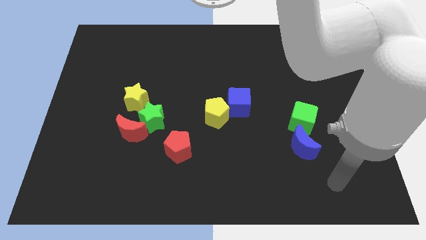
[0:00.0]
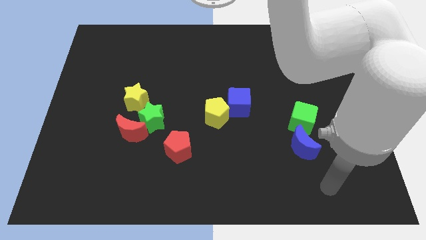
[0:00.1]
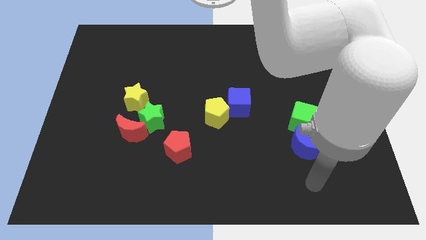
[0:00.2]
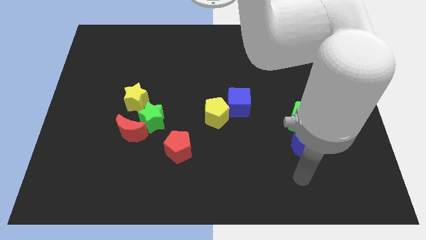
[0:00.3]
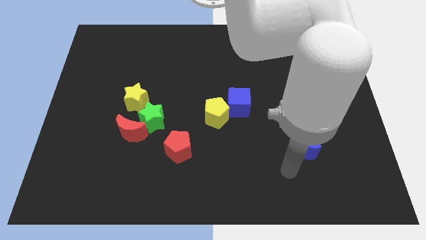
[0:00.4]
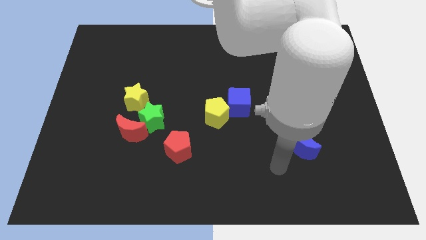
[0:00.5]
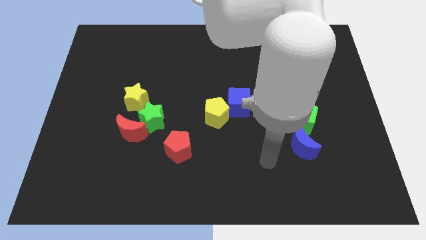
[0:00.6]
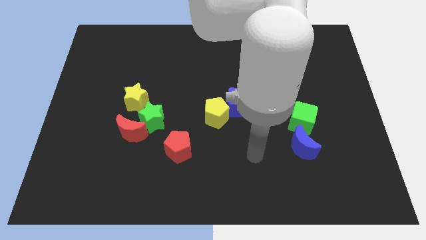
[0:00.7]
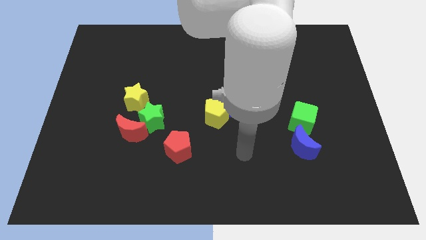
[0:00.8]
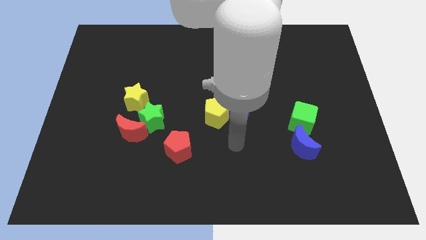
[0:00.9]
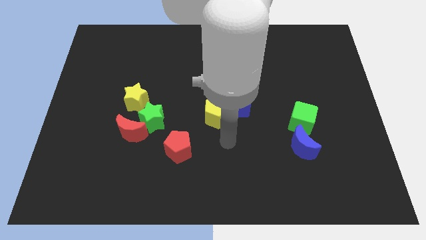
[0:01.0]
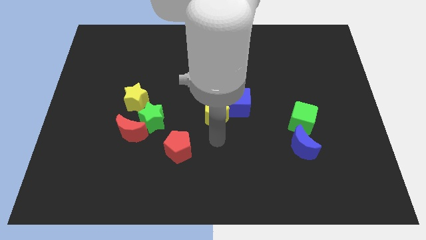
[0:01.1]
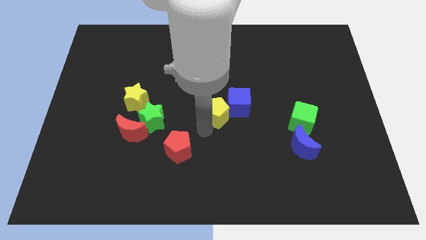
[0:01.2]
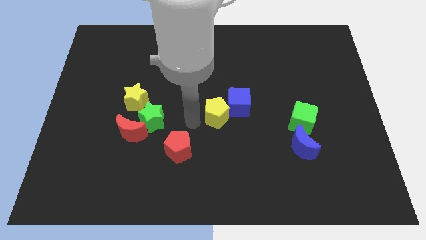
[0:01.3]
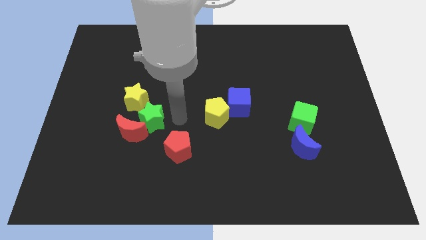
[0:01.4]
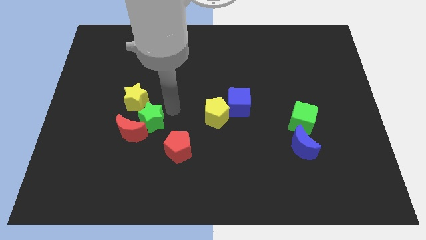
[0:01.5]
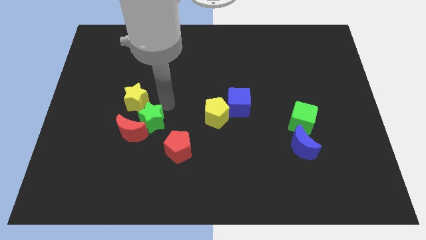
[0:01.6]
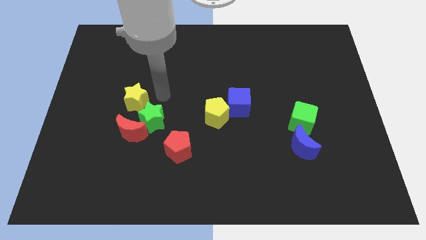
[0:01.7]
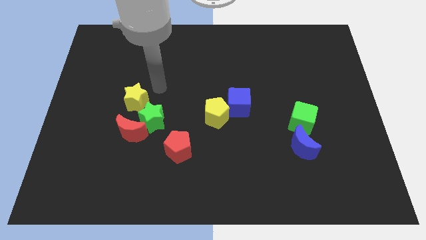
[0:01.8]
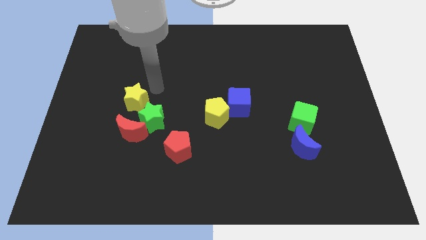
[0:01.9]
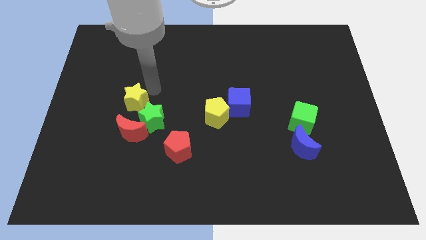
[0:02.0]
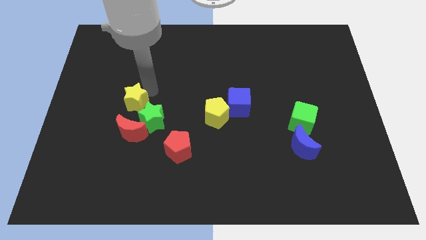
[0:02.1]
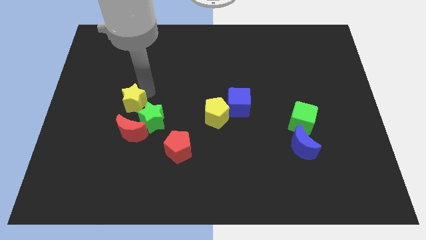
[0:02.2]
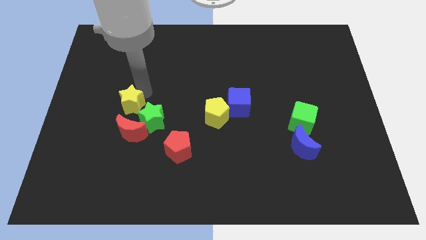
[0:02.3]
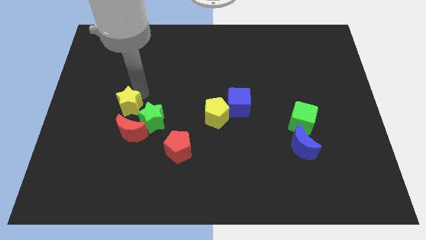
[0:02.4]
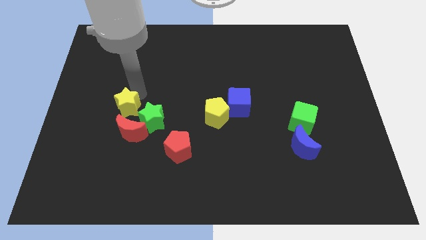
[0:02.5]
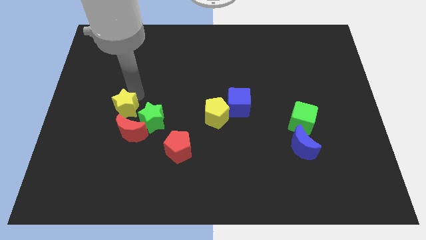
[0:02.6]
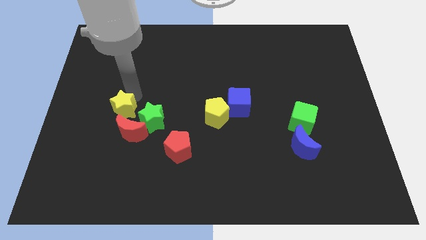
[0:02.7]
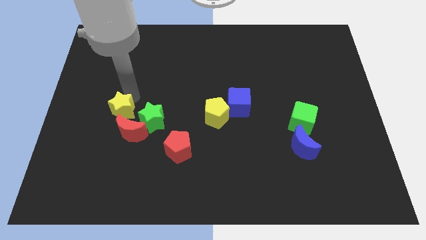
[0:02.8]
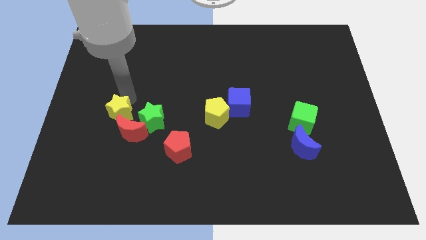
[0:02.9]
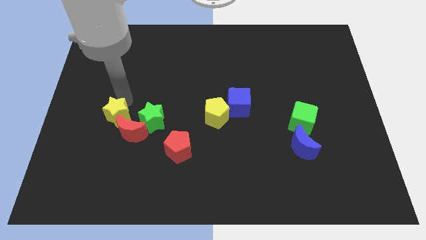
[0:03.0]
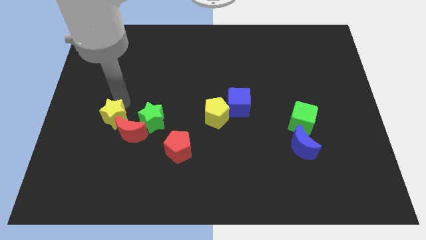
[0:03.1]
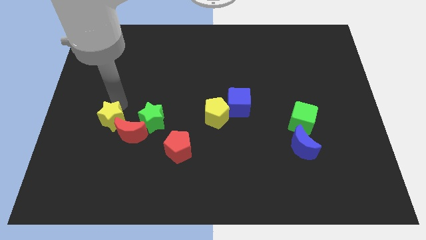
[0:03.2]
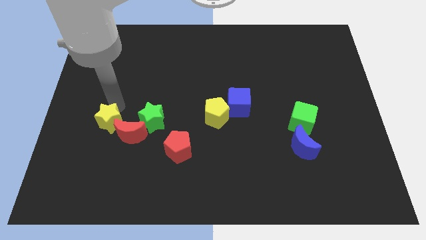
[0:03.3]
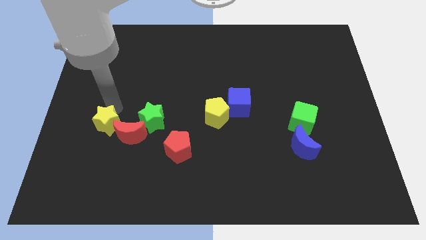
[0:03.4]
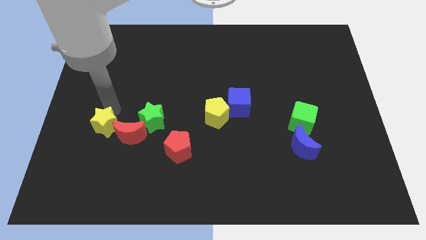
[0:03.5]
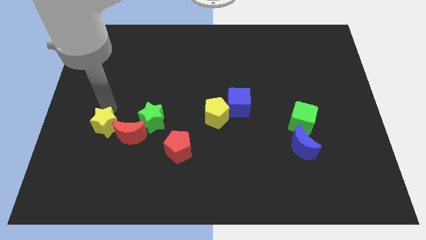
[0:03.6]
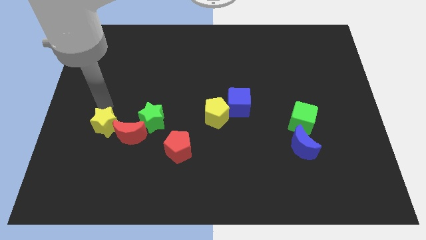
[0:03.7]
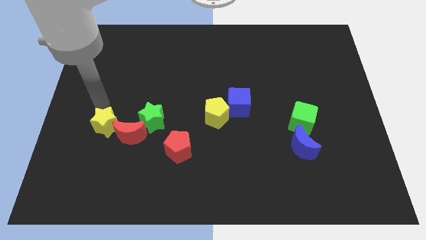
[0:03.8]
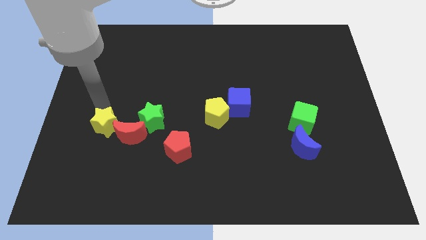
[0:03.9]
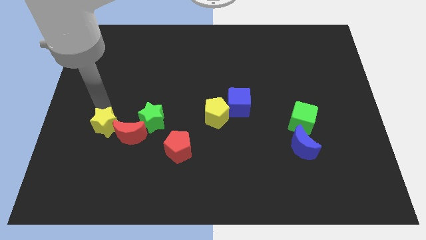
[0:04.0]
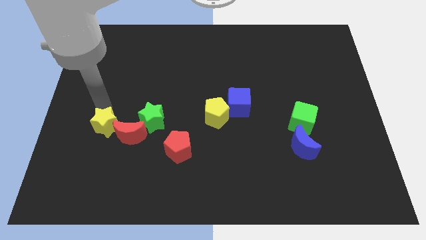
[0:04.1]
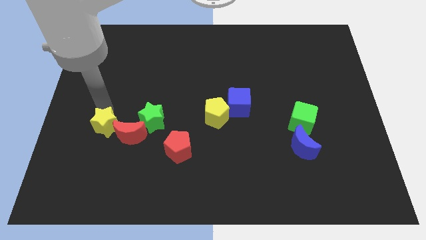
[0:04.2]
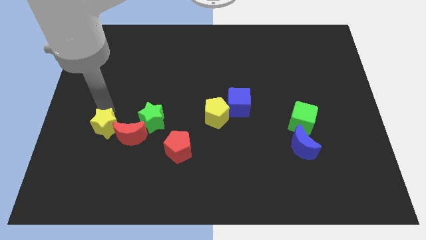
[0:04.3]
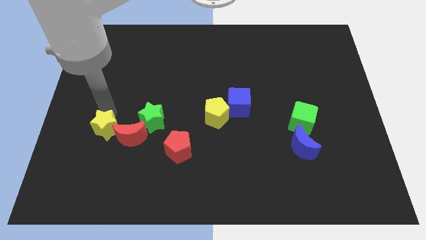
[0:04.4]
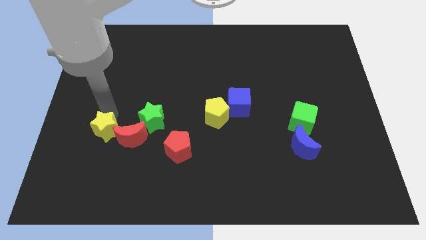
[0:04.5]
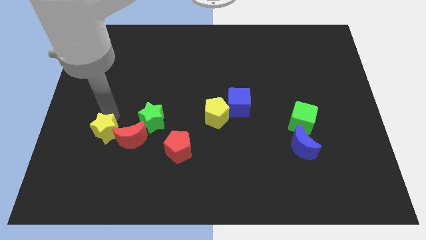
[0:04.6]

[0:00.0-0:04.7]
slightly move the yellow star downwards

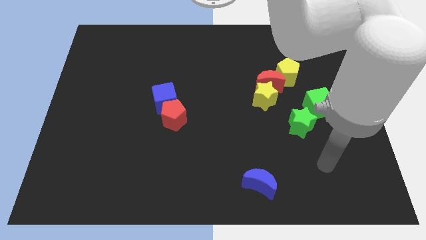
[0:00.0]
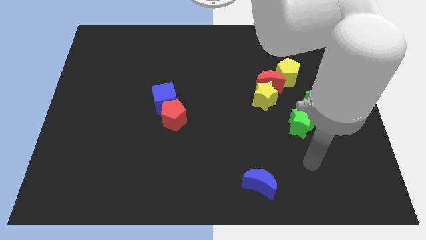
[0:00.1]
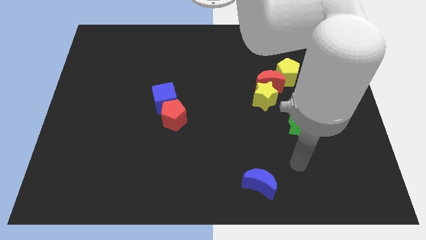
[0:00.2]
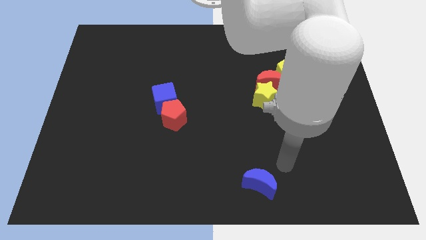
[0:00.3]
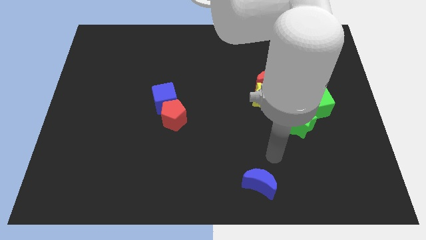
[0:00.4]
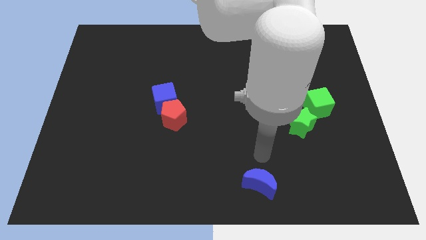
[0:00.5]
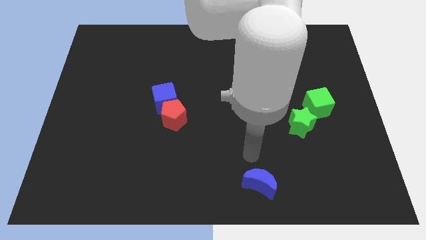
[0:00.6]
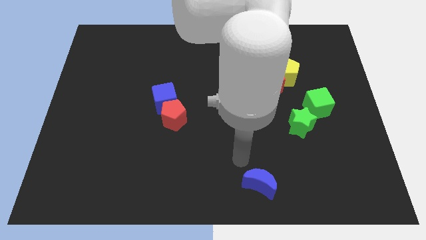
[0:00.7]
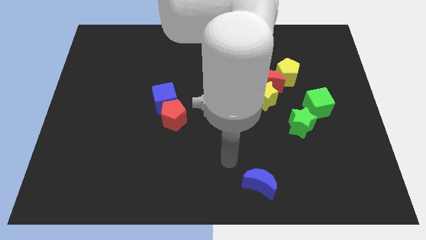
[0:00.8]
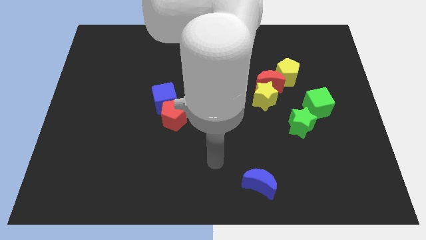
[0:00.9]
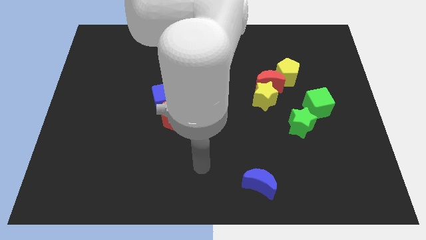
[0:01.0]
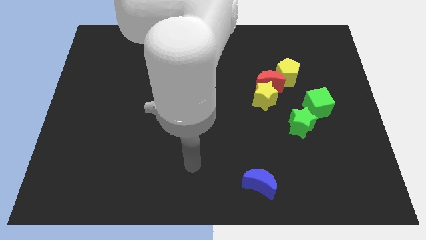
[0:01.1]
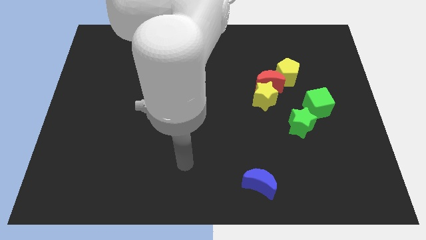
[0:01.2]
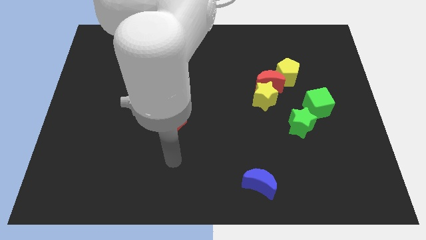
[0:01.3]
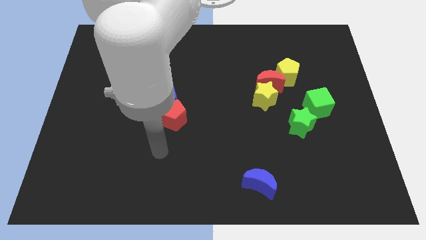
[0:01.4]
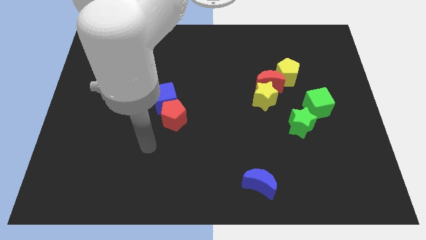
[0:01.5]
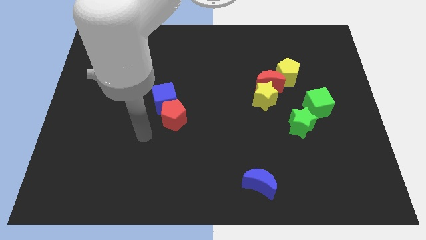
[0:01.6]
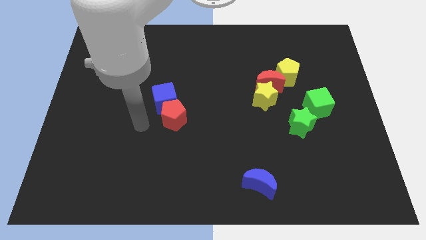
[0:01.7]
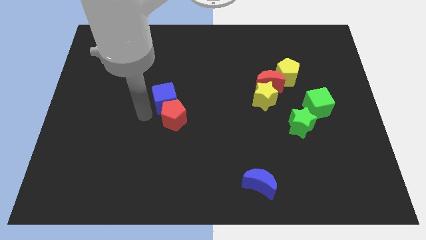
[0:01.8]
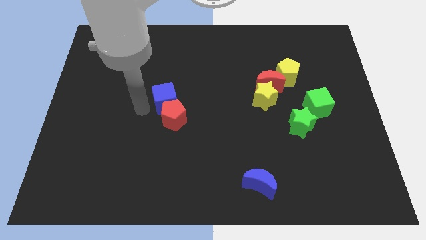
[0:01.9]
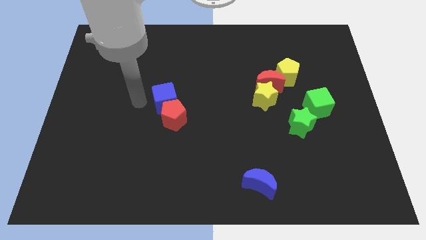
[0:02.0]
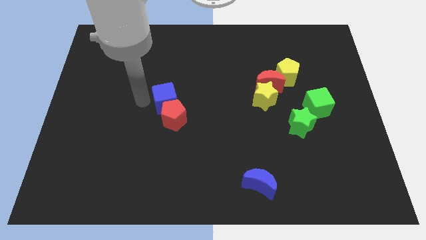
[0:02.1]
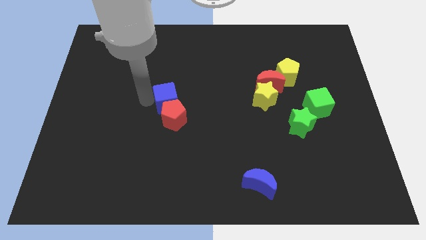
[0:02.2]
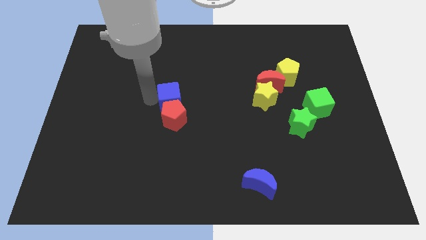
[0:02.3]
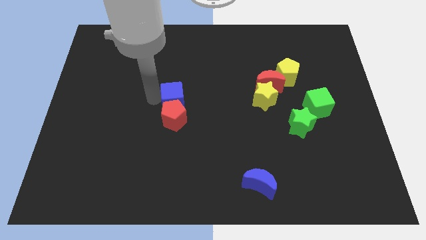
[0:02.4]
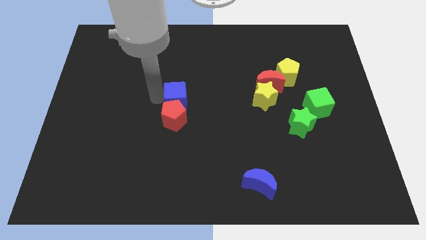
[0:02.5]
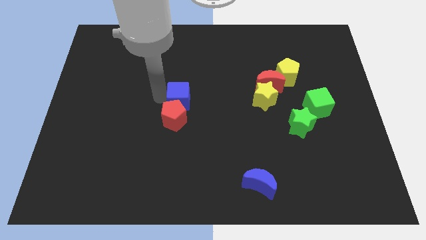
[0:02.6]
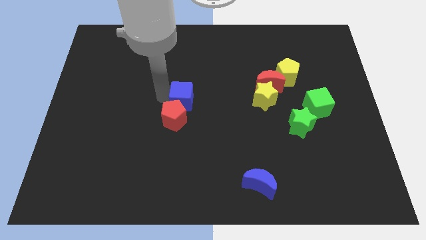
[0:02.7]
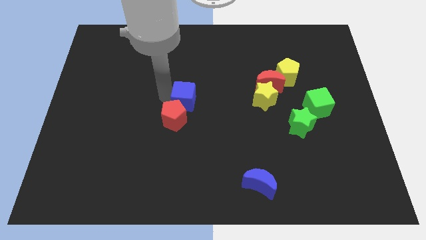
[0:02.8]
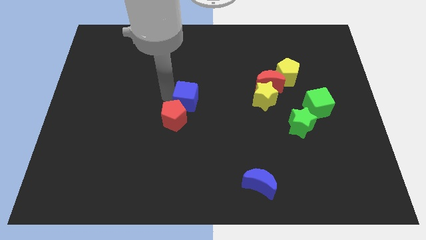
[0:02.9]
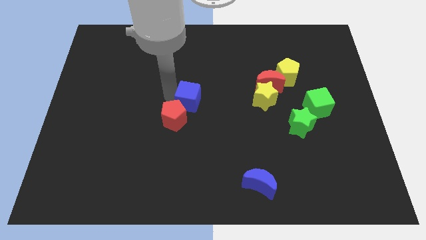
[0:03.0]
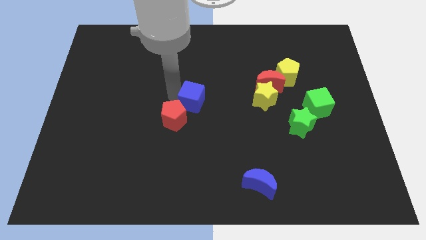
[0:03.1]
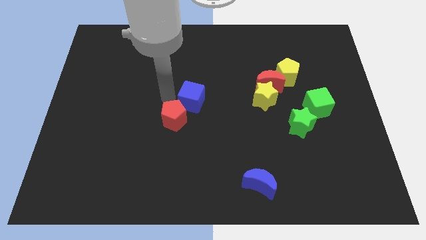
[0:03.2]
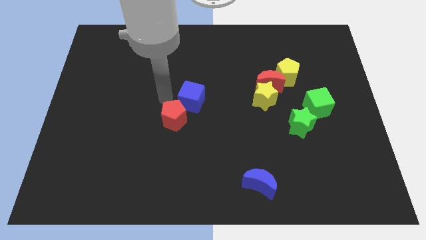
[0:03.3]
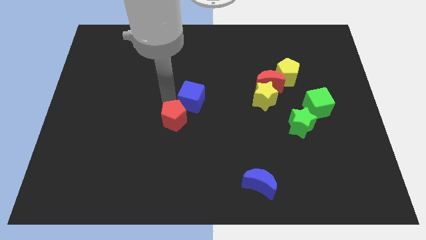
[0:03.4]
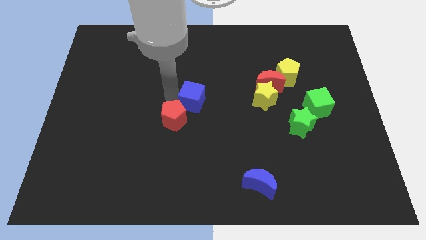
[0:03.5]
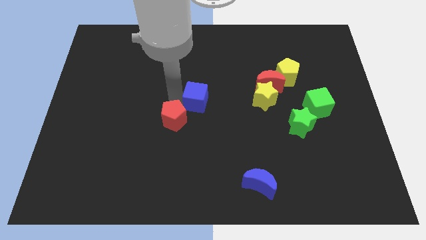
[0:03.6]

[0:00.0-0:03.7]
push the blue cube a little to the right
